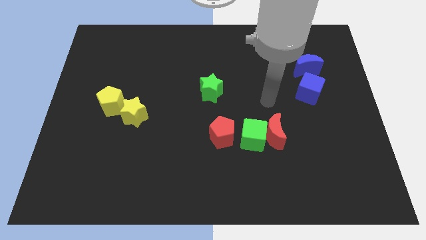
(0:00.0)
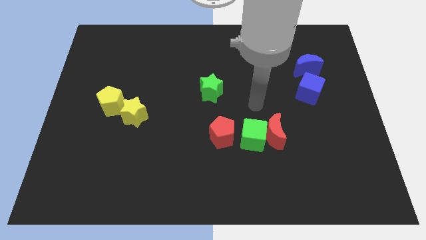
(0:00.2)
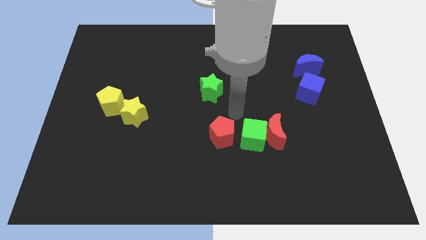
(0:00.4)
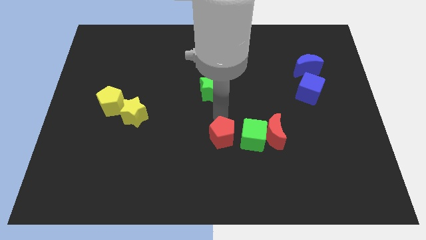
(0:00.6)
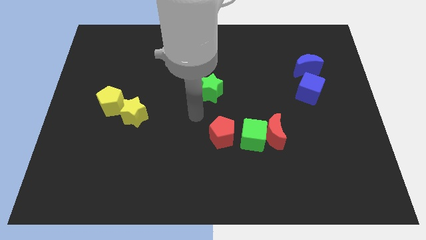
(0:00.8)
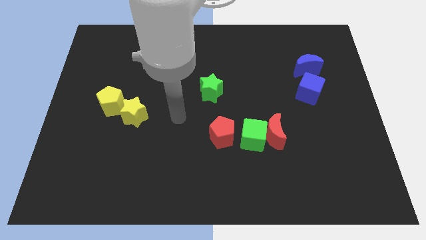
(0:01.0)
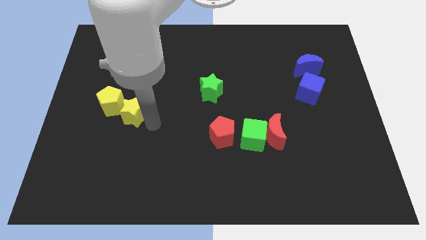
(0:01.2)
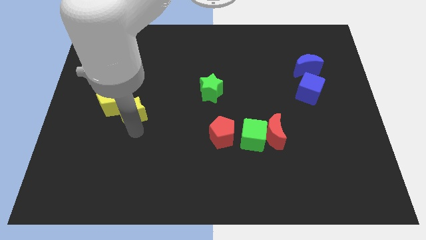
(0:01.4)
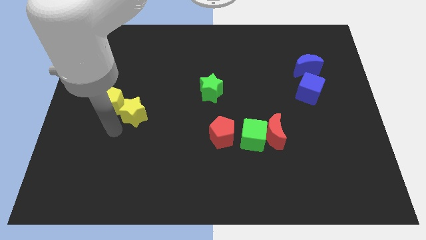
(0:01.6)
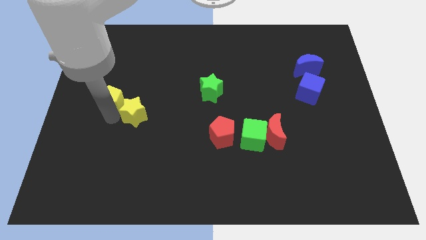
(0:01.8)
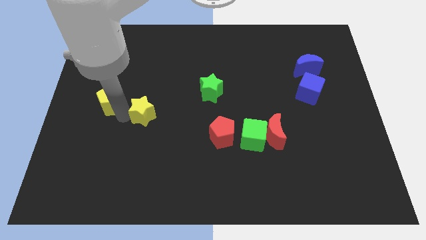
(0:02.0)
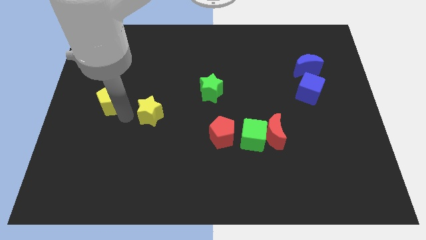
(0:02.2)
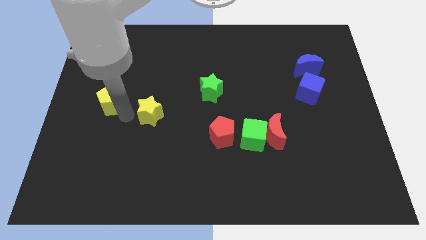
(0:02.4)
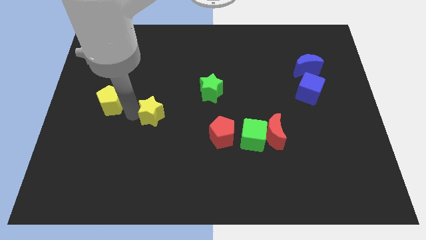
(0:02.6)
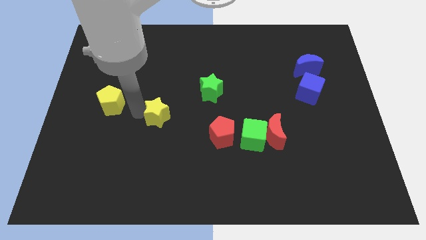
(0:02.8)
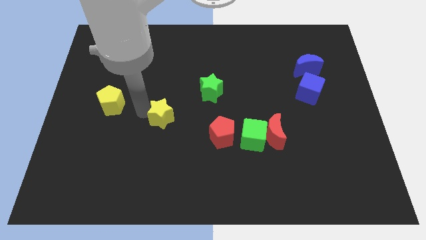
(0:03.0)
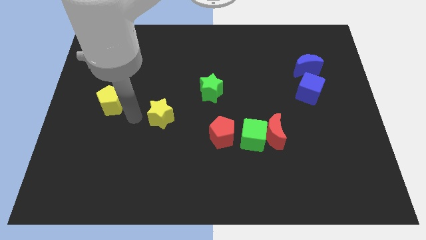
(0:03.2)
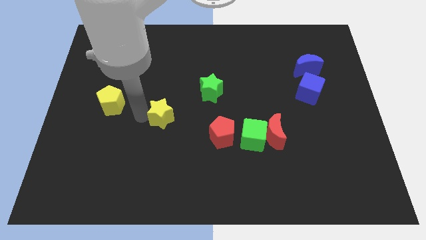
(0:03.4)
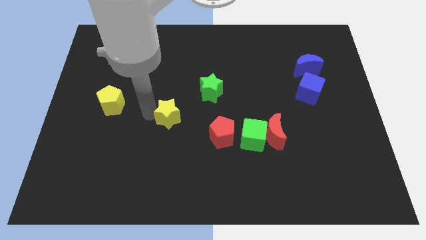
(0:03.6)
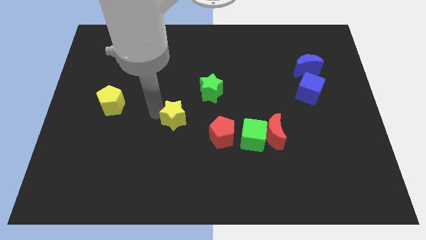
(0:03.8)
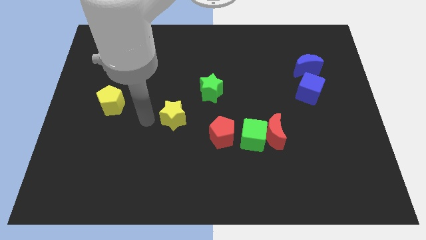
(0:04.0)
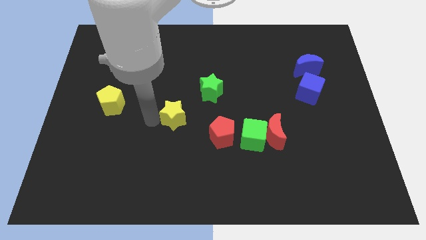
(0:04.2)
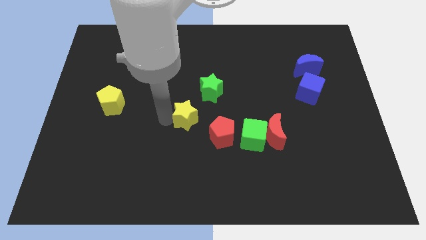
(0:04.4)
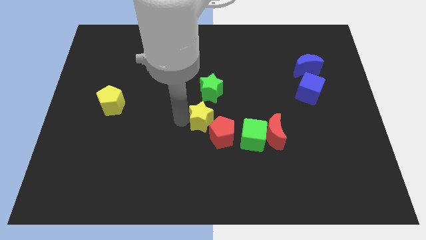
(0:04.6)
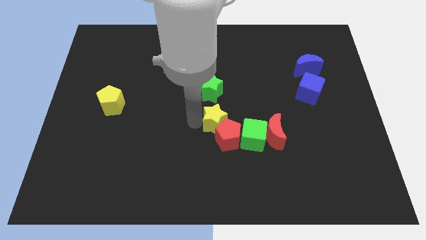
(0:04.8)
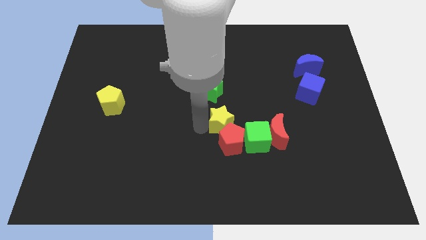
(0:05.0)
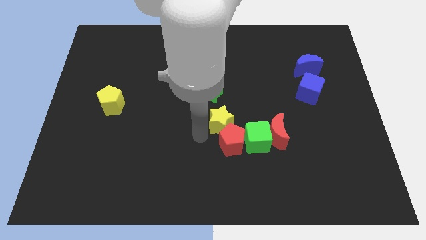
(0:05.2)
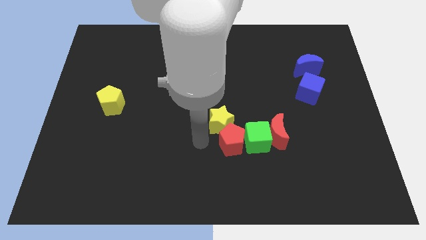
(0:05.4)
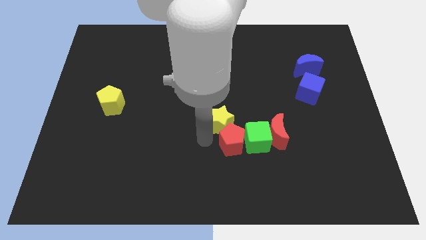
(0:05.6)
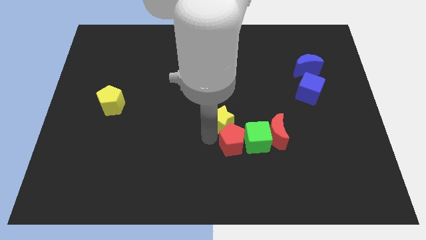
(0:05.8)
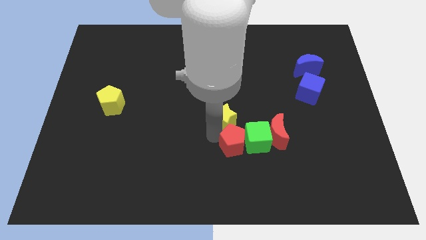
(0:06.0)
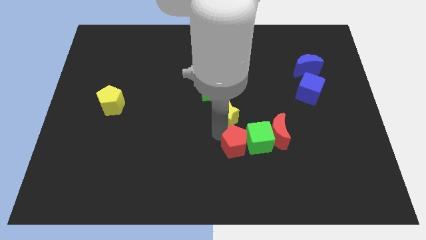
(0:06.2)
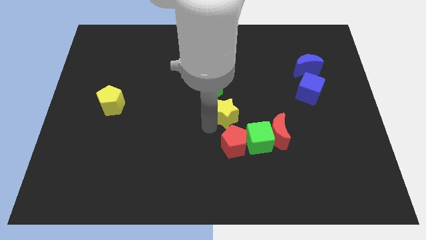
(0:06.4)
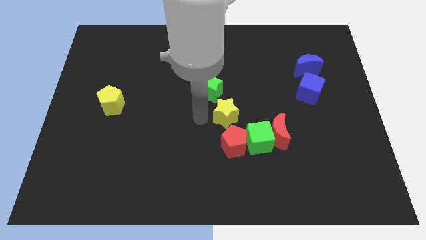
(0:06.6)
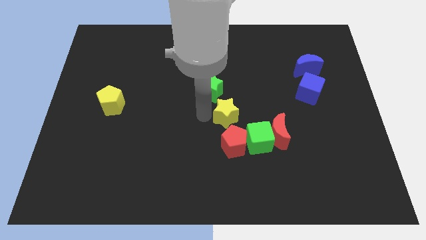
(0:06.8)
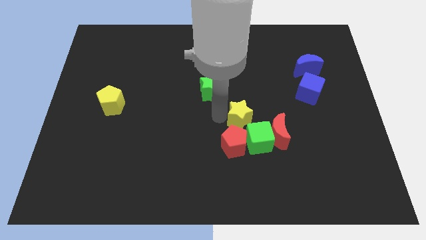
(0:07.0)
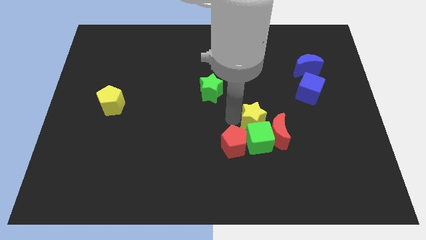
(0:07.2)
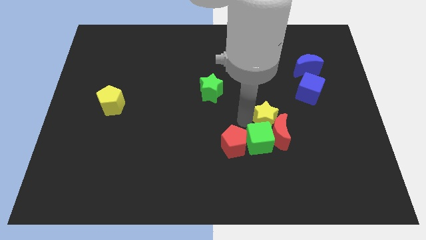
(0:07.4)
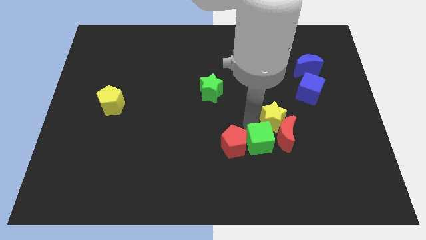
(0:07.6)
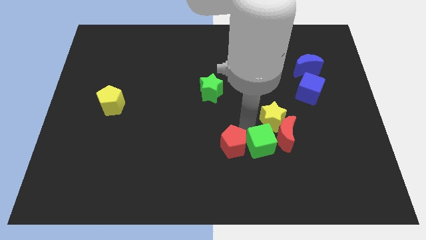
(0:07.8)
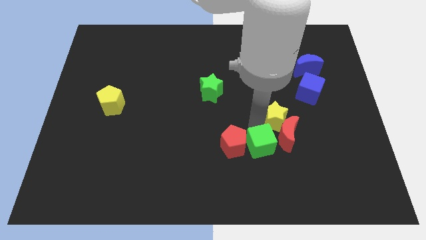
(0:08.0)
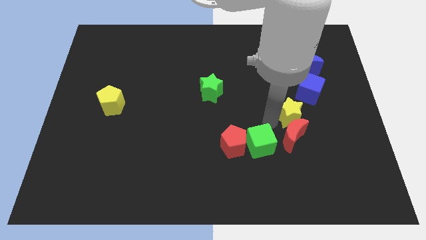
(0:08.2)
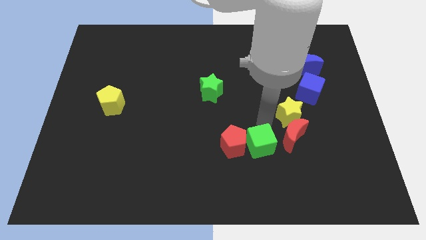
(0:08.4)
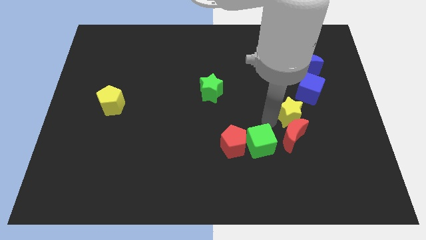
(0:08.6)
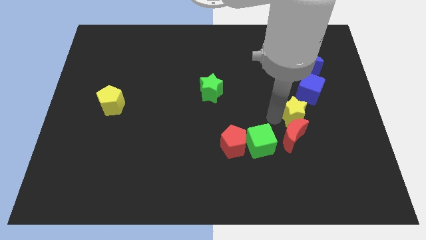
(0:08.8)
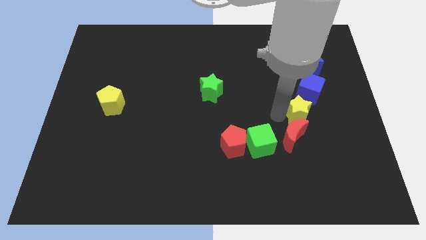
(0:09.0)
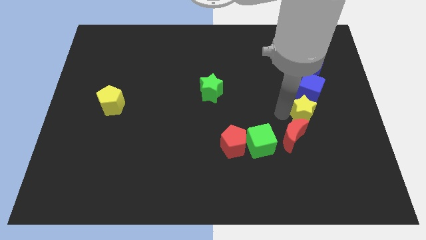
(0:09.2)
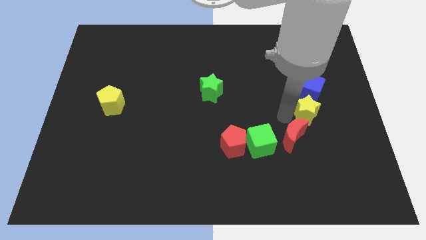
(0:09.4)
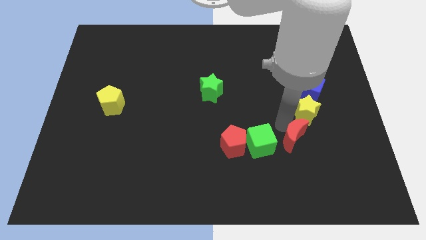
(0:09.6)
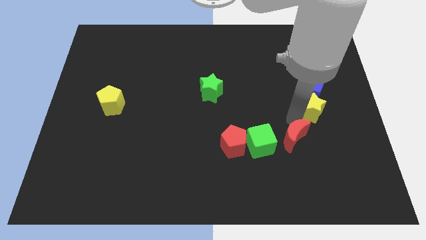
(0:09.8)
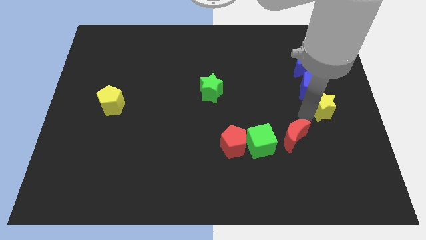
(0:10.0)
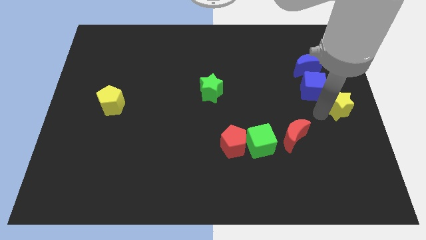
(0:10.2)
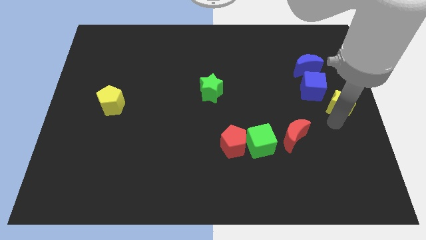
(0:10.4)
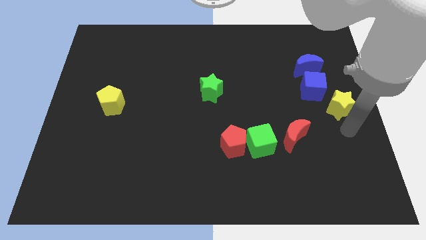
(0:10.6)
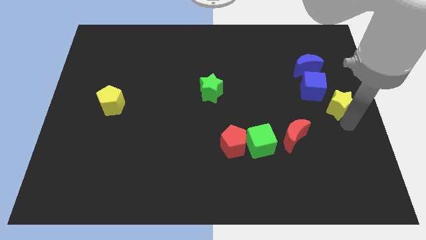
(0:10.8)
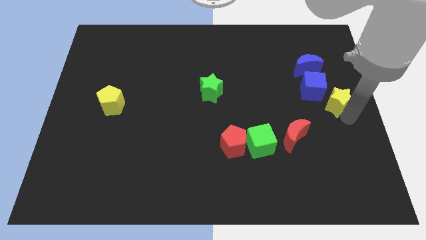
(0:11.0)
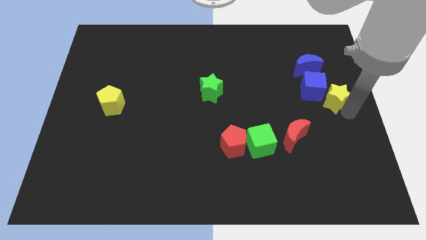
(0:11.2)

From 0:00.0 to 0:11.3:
put the yellow star to the bottom right side of the blue moon

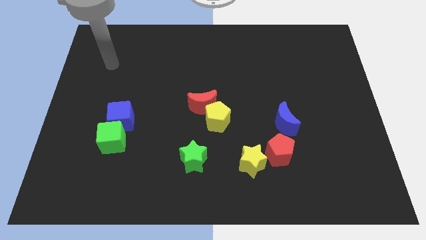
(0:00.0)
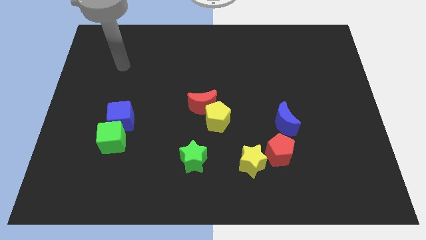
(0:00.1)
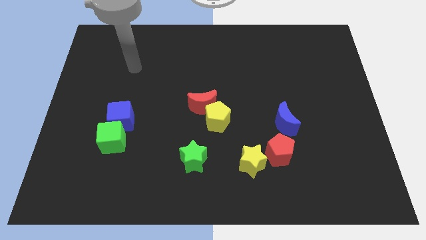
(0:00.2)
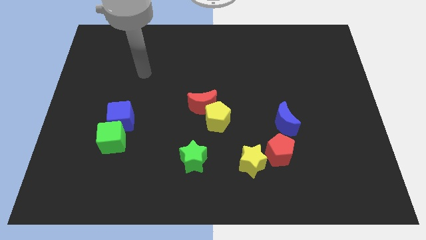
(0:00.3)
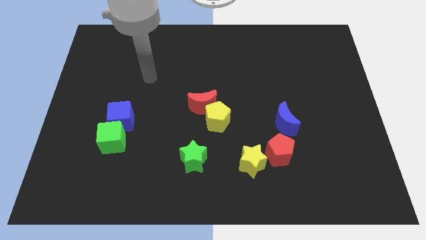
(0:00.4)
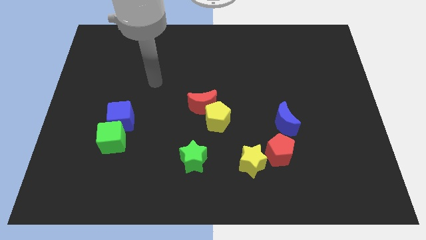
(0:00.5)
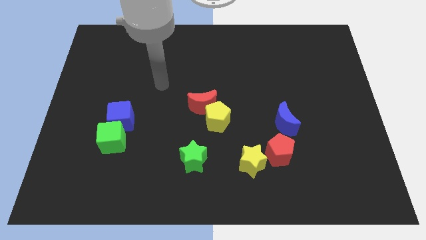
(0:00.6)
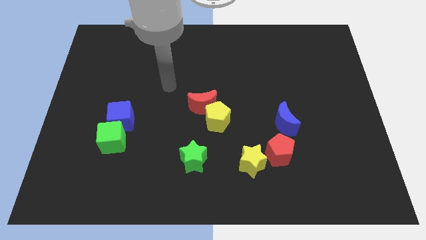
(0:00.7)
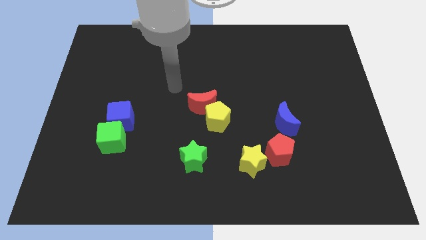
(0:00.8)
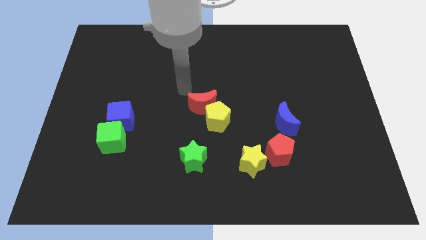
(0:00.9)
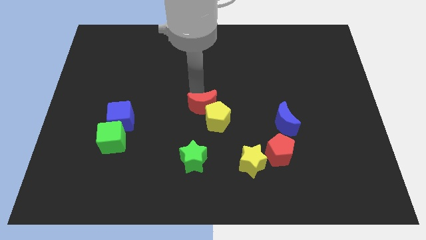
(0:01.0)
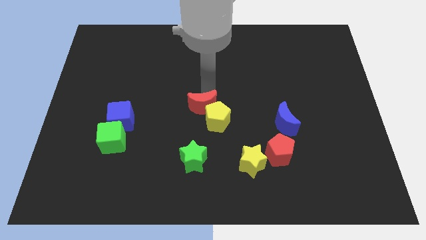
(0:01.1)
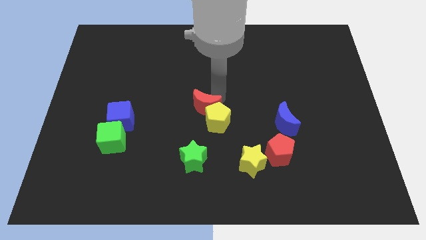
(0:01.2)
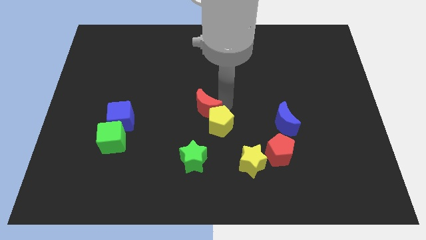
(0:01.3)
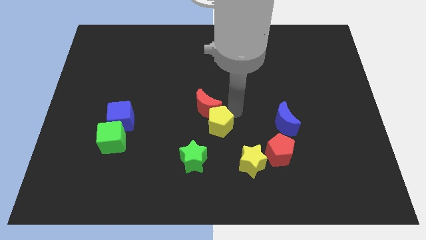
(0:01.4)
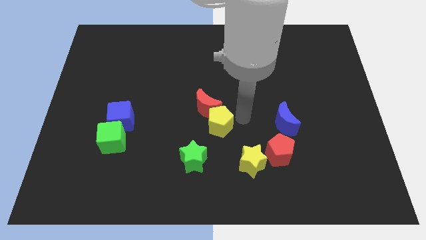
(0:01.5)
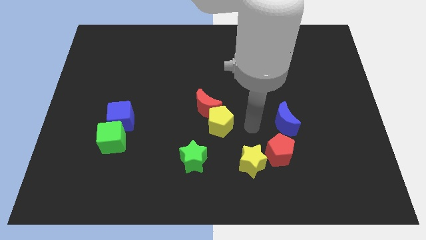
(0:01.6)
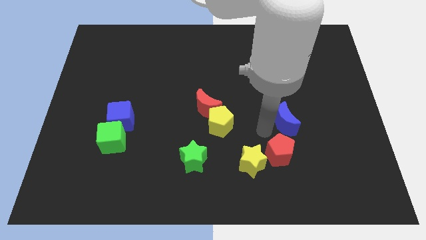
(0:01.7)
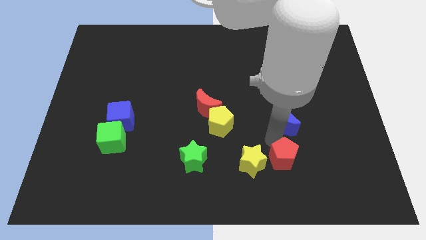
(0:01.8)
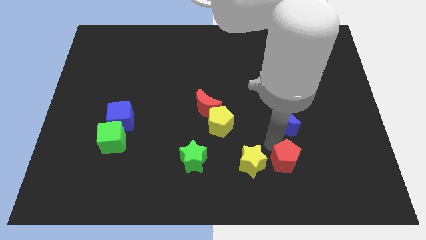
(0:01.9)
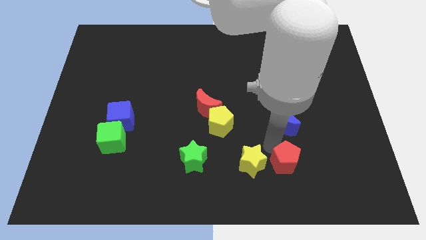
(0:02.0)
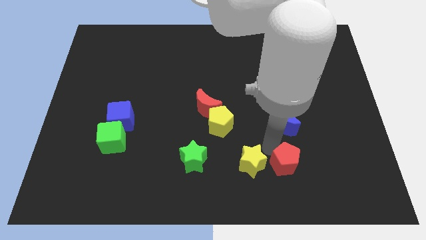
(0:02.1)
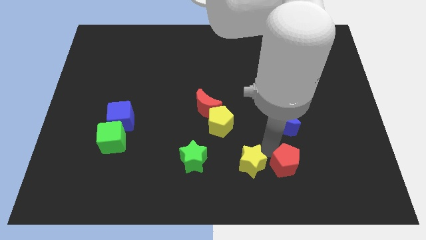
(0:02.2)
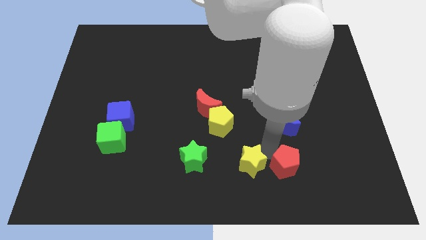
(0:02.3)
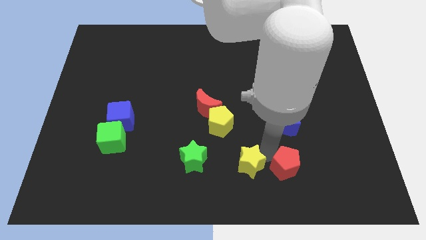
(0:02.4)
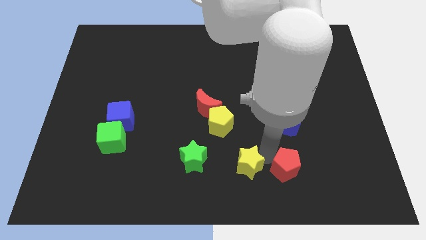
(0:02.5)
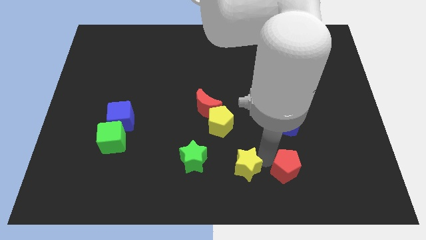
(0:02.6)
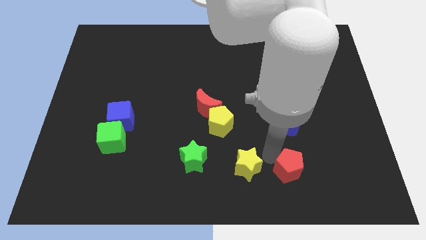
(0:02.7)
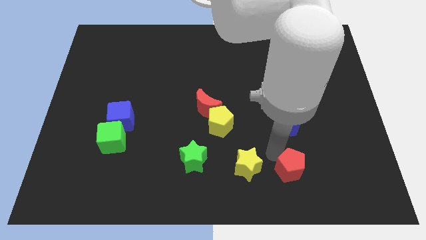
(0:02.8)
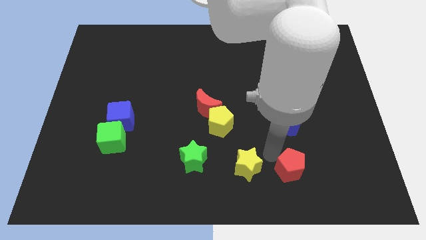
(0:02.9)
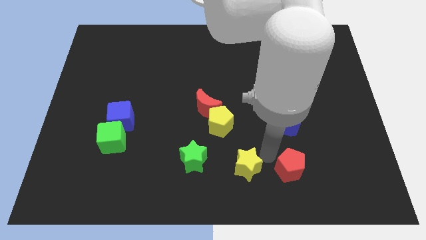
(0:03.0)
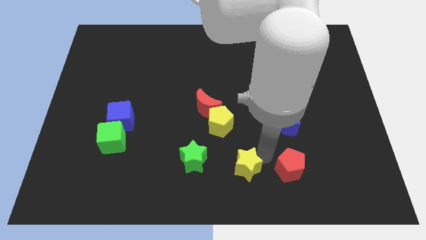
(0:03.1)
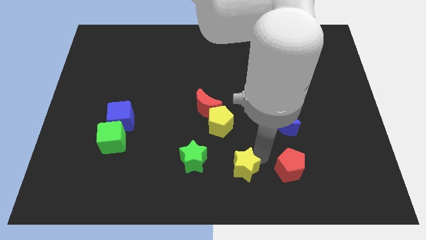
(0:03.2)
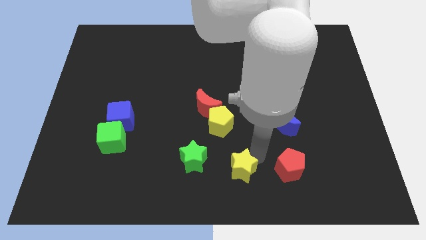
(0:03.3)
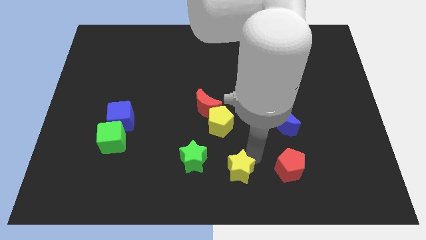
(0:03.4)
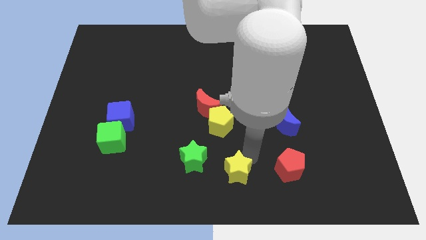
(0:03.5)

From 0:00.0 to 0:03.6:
move the yellow star to the bottom right side of the green star
